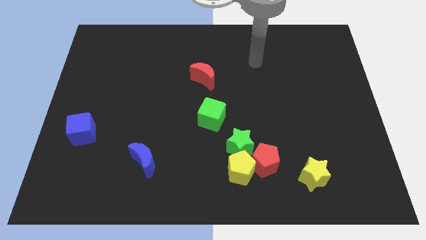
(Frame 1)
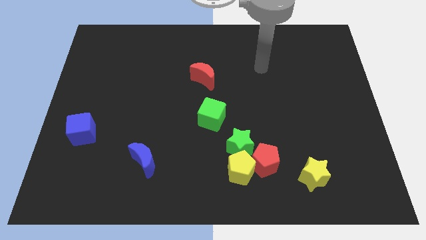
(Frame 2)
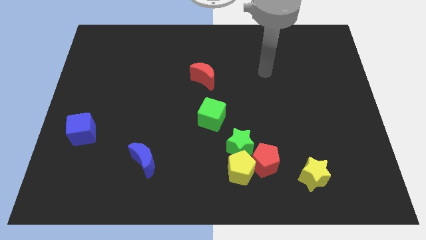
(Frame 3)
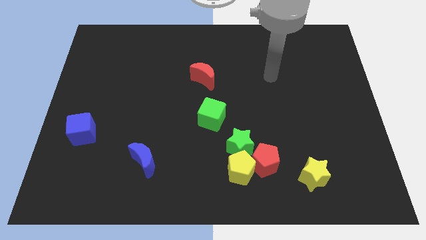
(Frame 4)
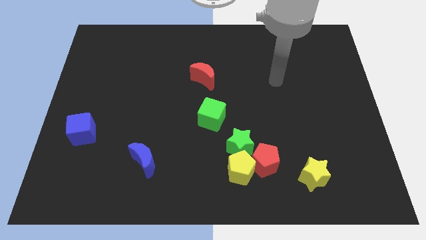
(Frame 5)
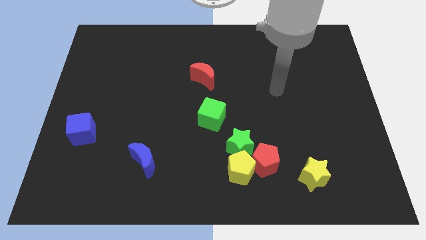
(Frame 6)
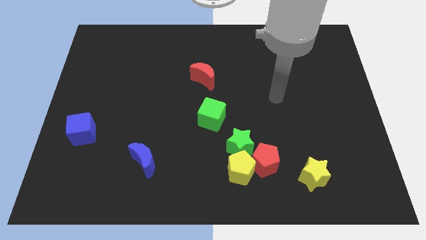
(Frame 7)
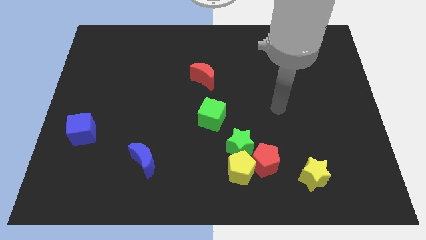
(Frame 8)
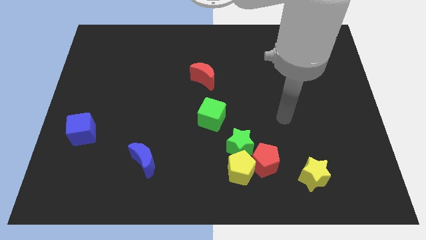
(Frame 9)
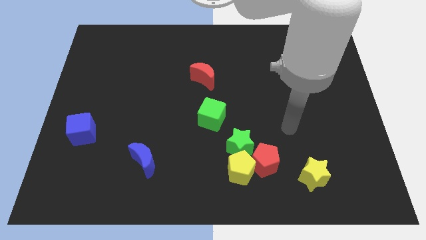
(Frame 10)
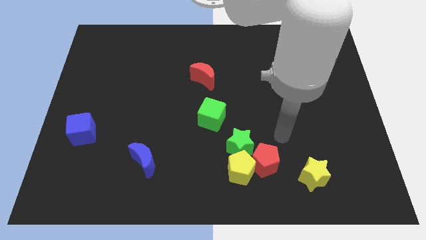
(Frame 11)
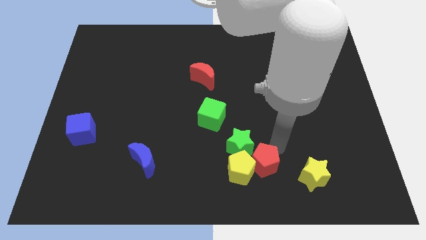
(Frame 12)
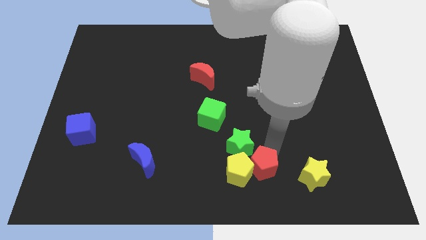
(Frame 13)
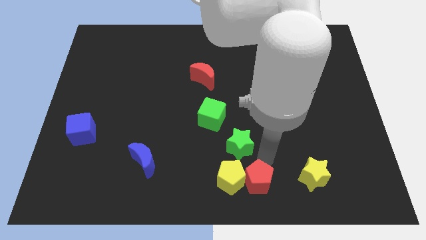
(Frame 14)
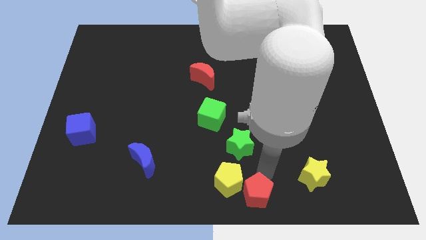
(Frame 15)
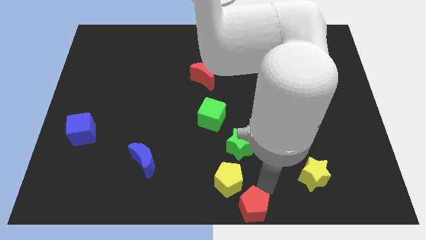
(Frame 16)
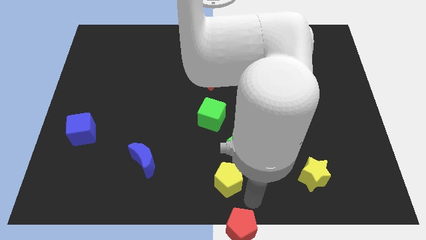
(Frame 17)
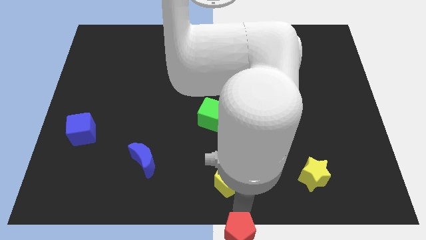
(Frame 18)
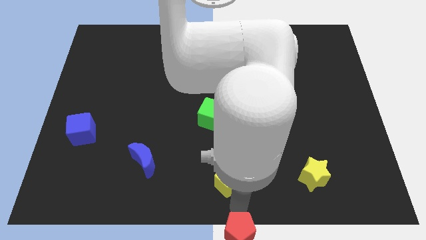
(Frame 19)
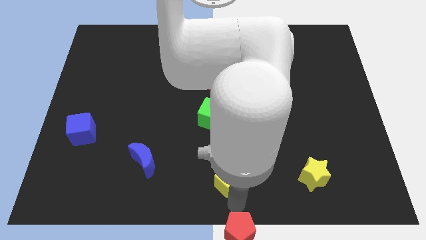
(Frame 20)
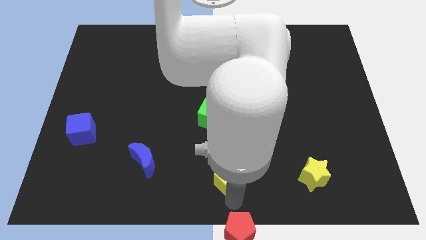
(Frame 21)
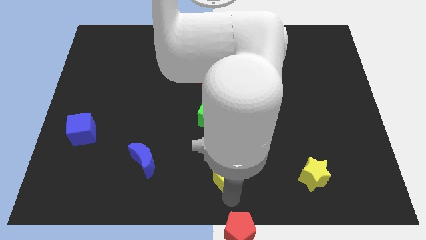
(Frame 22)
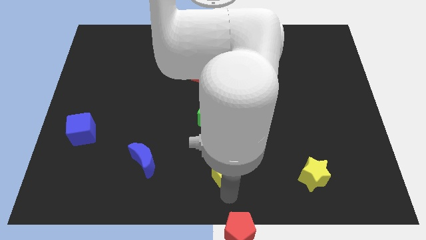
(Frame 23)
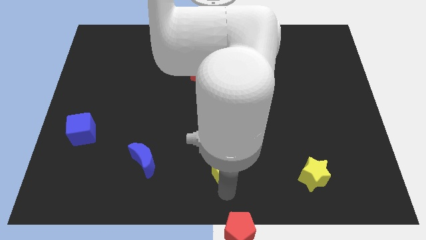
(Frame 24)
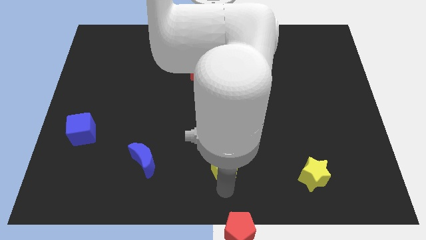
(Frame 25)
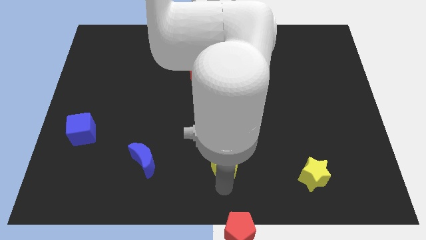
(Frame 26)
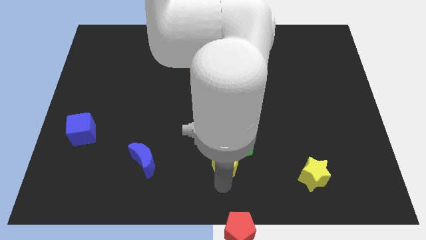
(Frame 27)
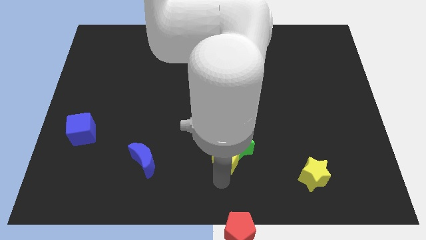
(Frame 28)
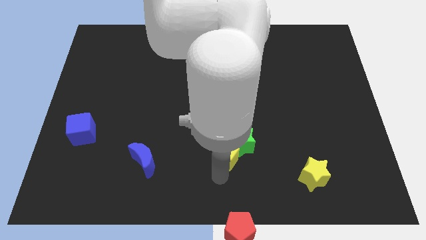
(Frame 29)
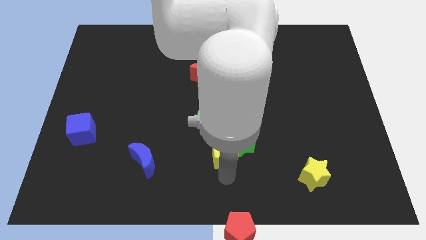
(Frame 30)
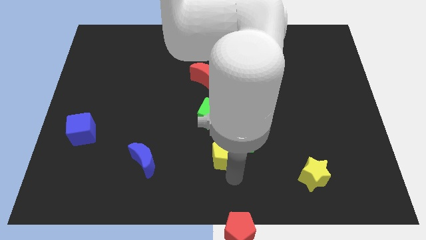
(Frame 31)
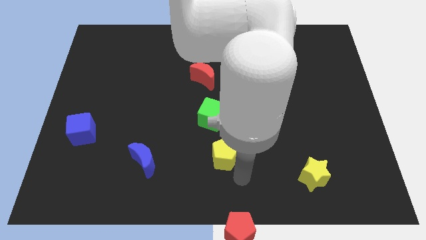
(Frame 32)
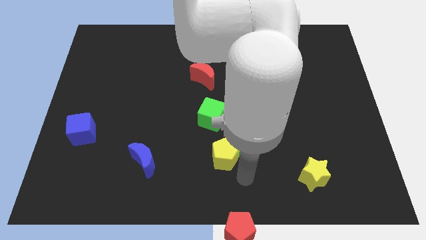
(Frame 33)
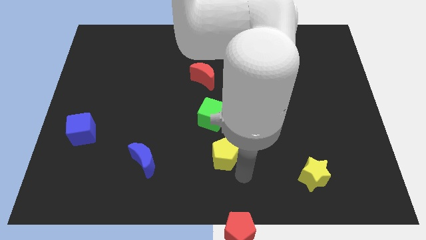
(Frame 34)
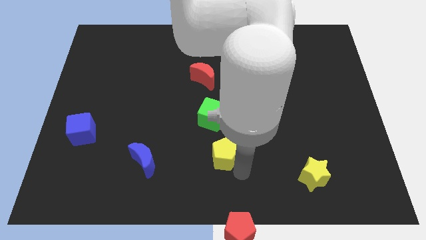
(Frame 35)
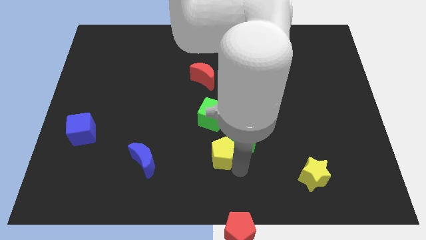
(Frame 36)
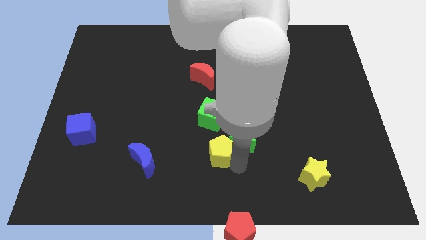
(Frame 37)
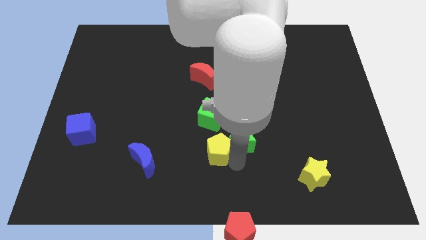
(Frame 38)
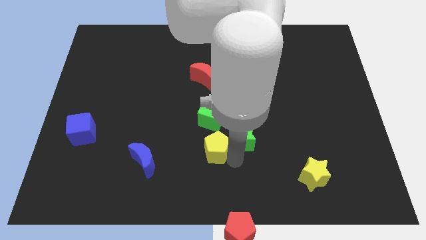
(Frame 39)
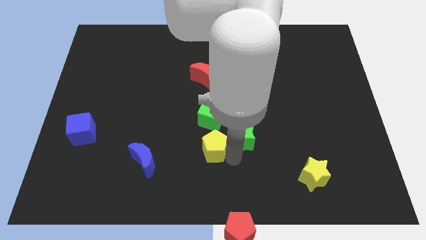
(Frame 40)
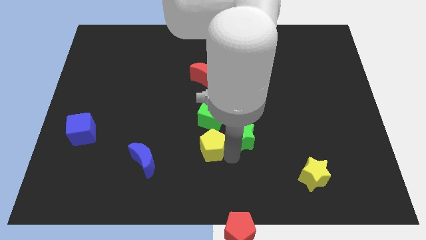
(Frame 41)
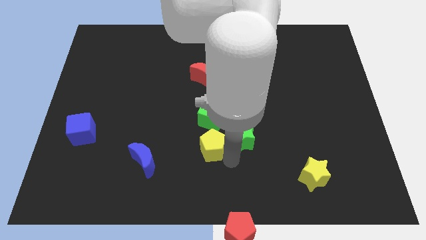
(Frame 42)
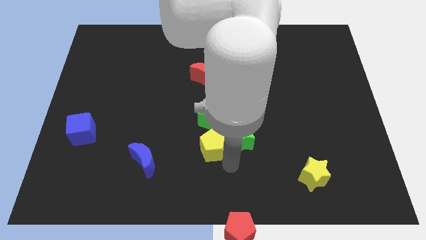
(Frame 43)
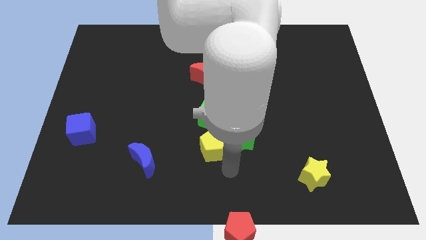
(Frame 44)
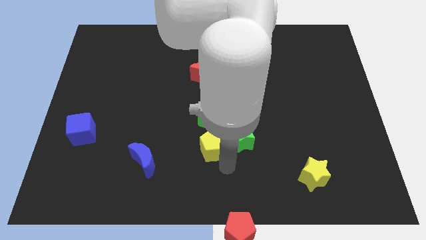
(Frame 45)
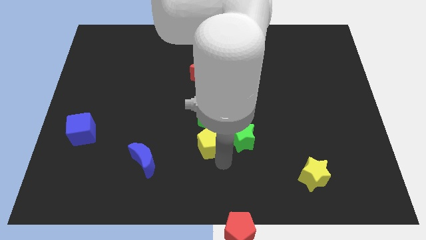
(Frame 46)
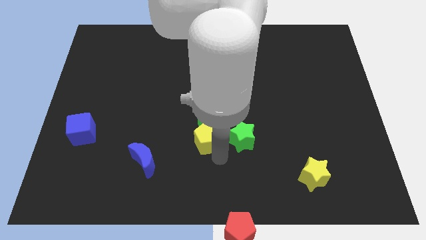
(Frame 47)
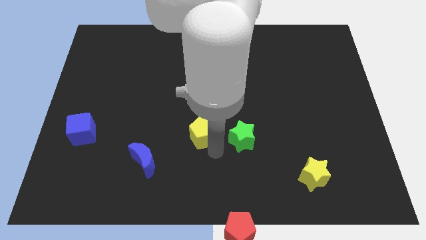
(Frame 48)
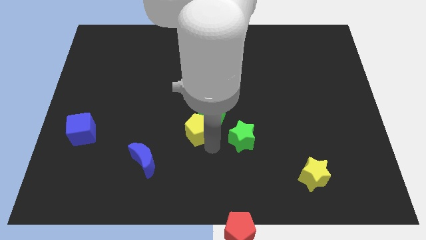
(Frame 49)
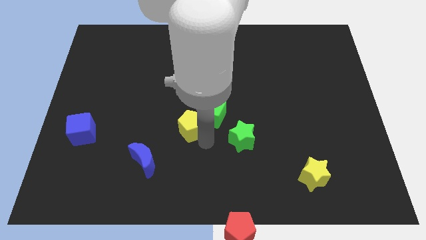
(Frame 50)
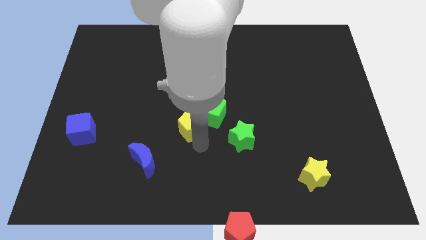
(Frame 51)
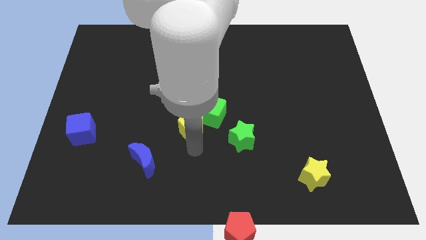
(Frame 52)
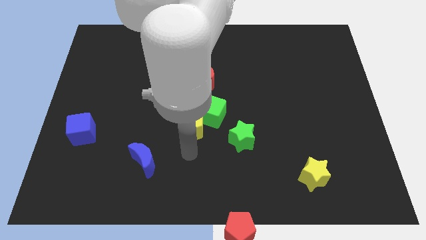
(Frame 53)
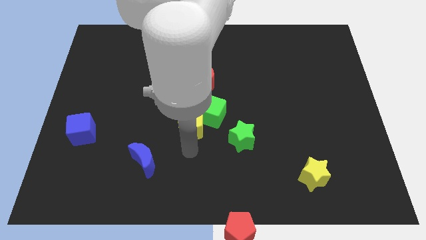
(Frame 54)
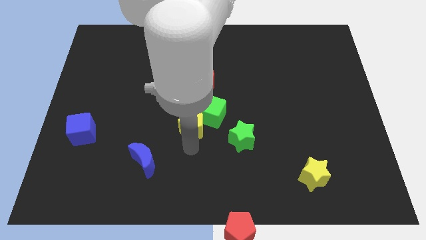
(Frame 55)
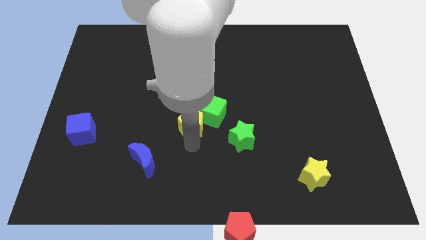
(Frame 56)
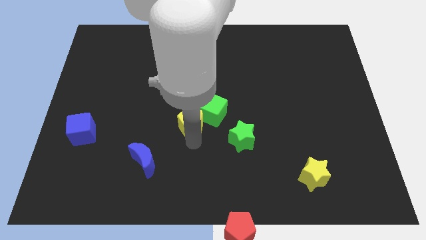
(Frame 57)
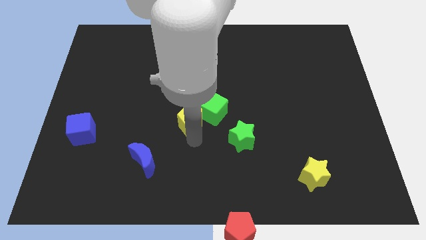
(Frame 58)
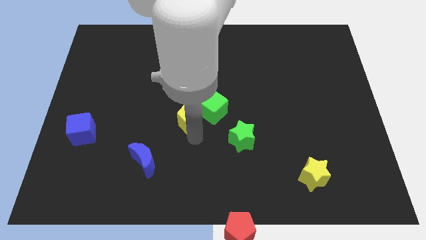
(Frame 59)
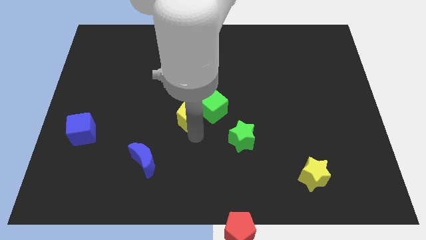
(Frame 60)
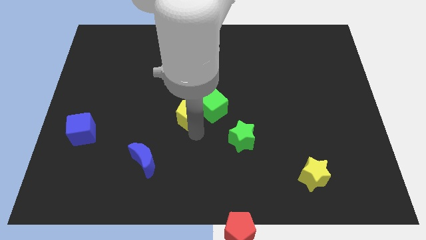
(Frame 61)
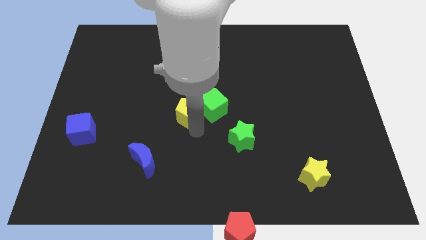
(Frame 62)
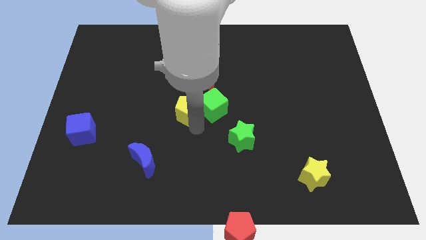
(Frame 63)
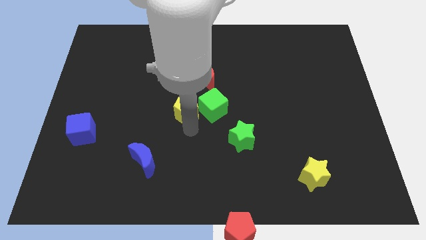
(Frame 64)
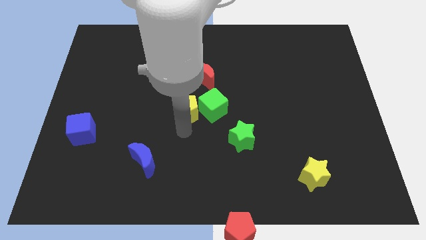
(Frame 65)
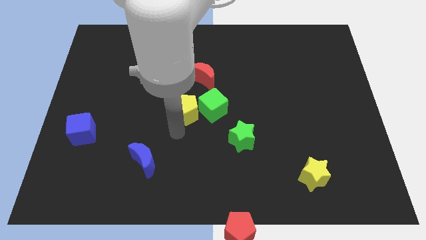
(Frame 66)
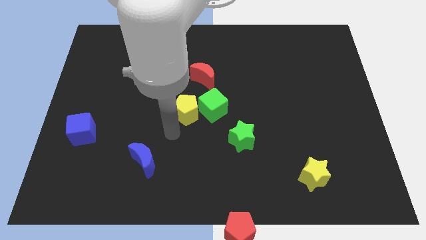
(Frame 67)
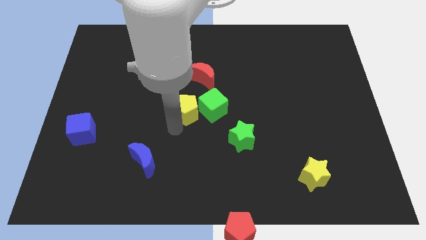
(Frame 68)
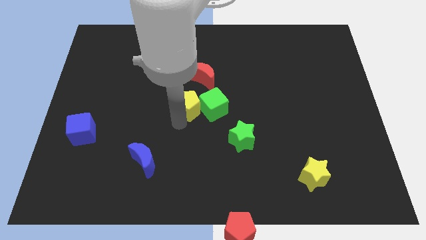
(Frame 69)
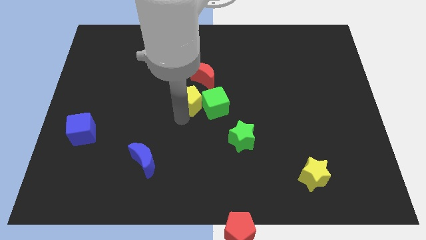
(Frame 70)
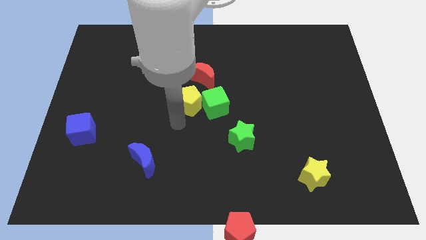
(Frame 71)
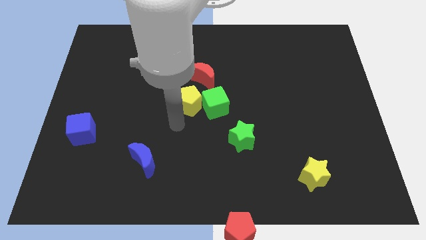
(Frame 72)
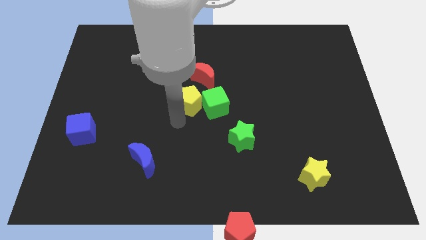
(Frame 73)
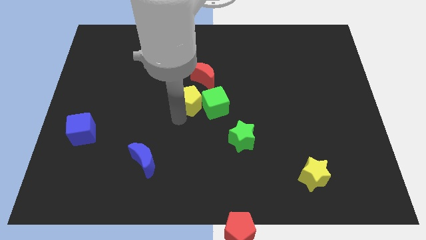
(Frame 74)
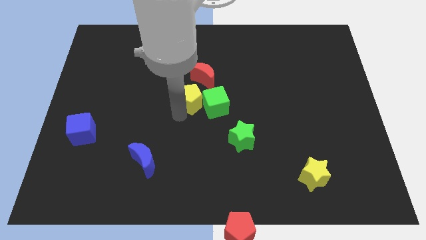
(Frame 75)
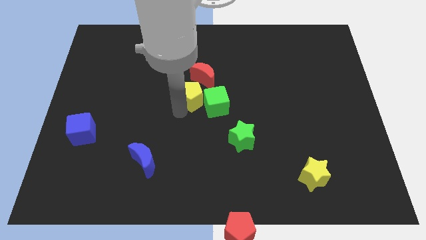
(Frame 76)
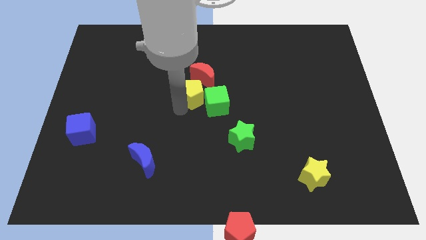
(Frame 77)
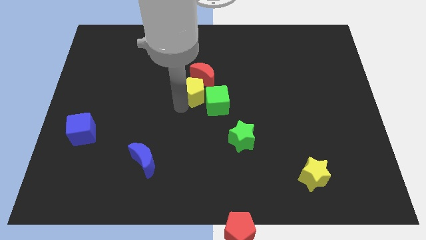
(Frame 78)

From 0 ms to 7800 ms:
slide the yellow pentagon to the red moon

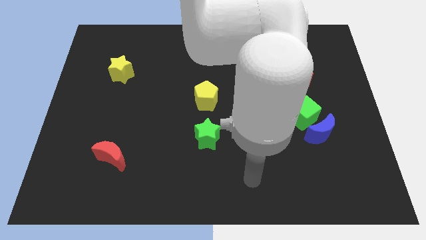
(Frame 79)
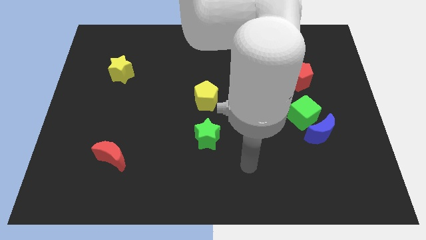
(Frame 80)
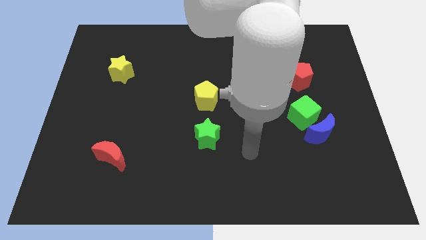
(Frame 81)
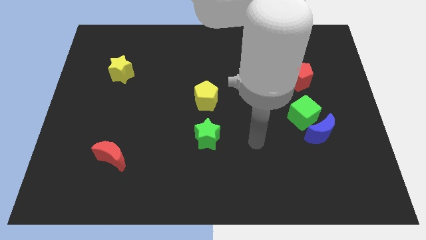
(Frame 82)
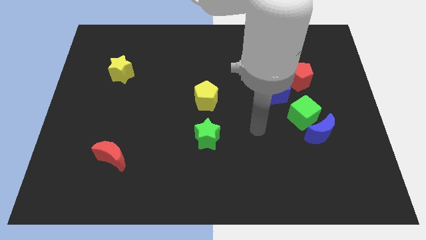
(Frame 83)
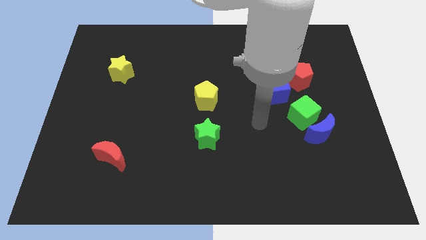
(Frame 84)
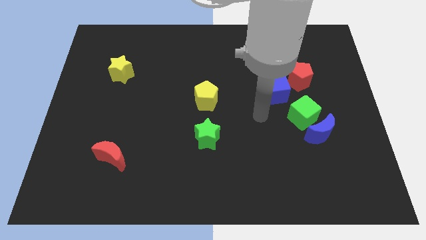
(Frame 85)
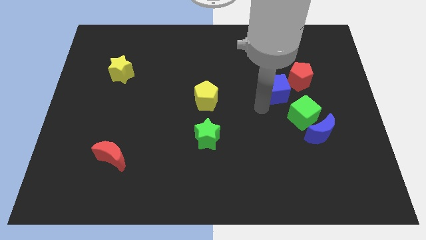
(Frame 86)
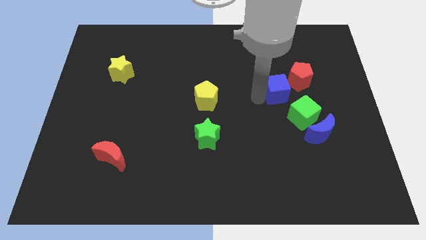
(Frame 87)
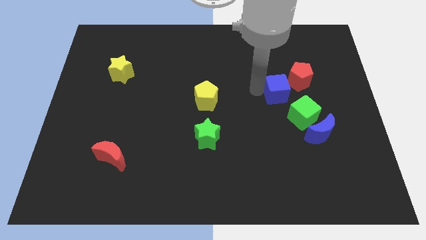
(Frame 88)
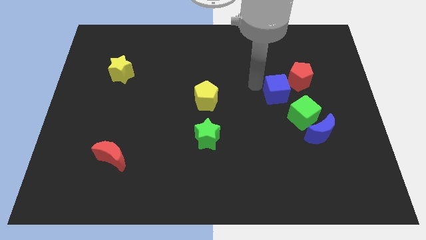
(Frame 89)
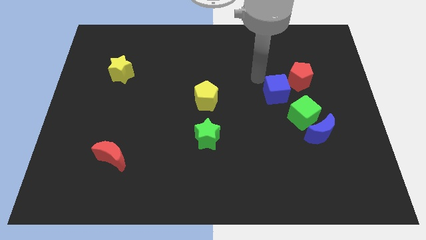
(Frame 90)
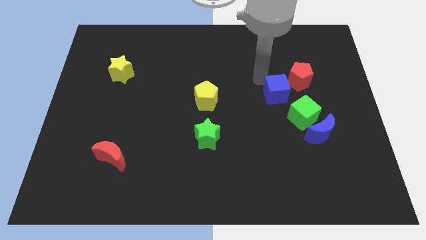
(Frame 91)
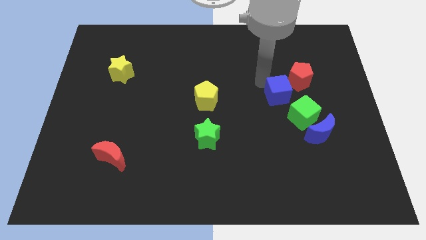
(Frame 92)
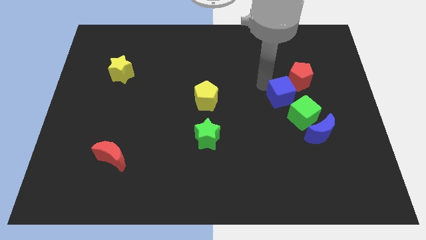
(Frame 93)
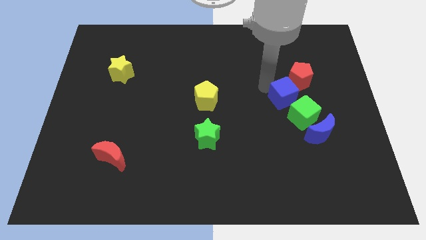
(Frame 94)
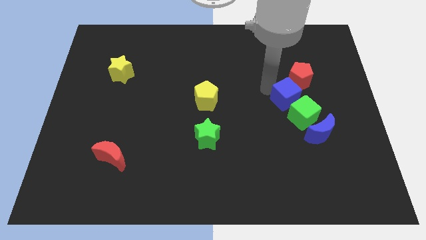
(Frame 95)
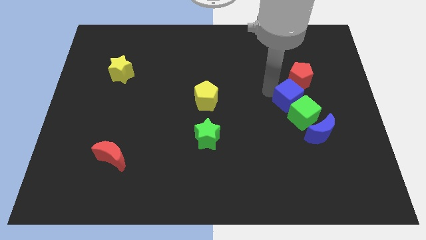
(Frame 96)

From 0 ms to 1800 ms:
slide the blue cube next to the green cube
